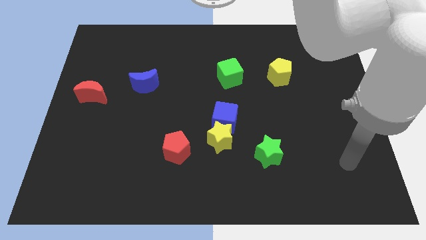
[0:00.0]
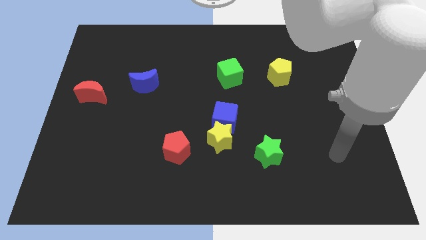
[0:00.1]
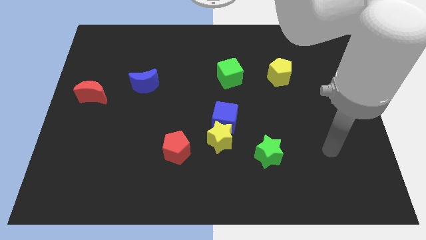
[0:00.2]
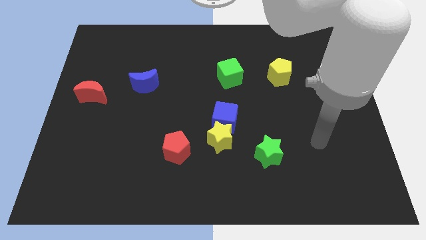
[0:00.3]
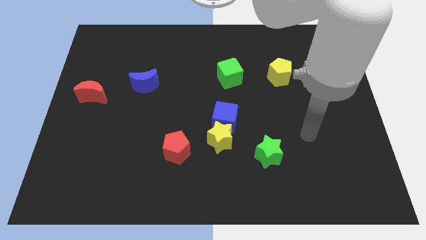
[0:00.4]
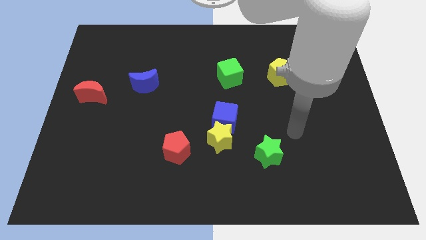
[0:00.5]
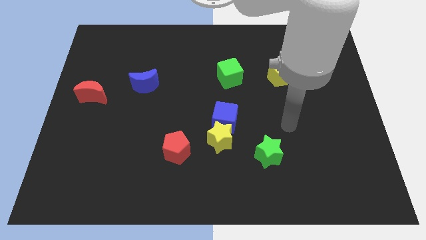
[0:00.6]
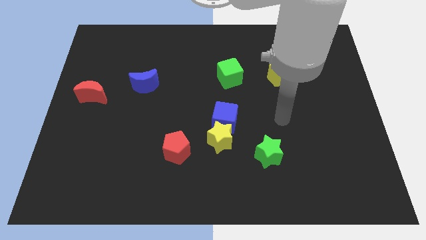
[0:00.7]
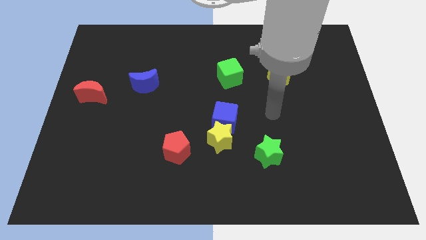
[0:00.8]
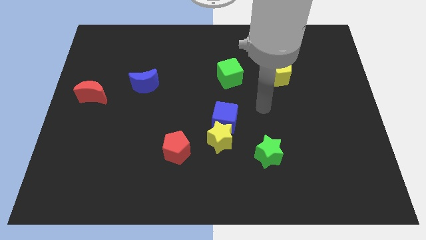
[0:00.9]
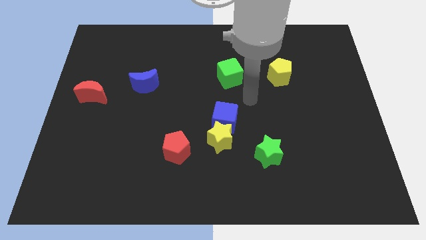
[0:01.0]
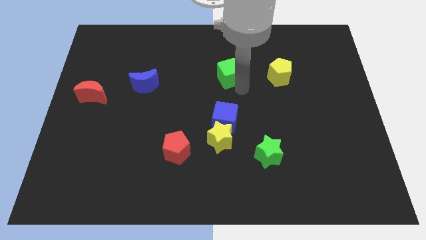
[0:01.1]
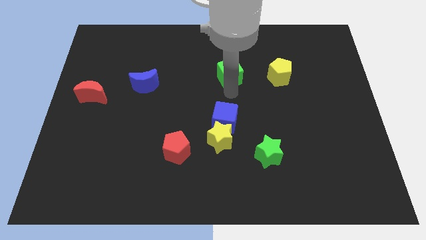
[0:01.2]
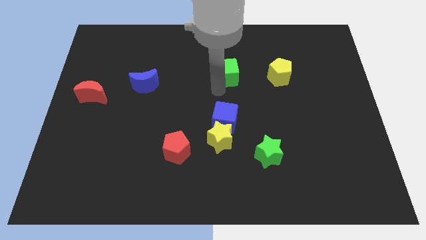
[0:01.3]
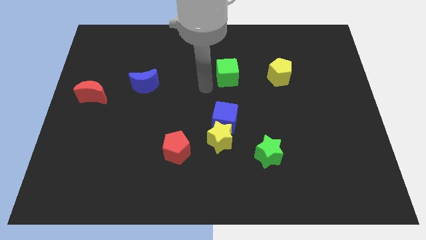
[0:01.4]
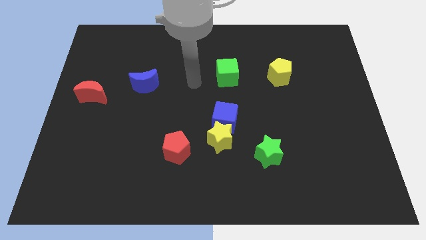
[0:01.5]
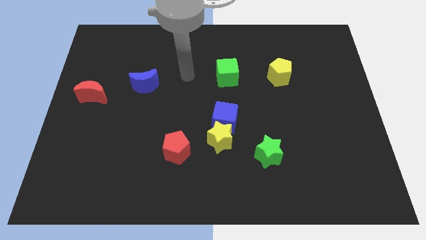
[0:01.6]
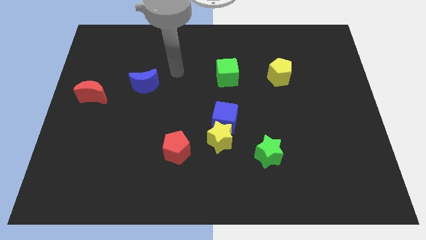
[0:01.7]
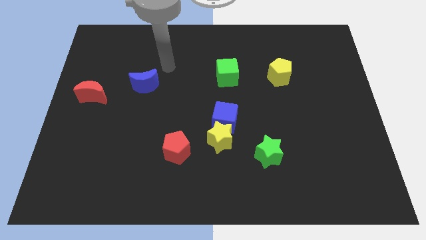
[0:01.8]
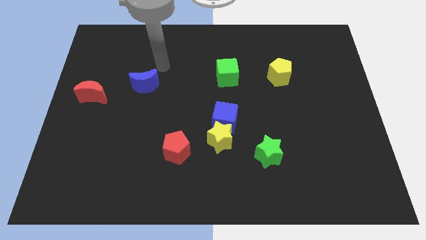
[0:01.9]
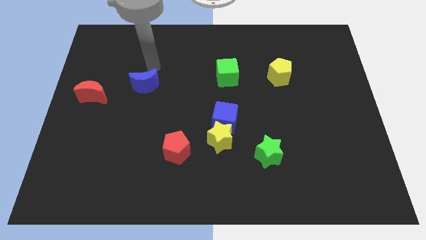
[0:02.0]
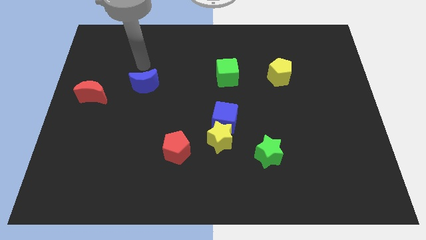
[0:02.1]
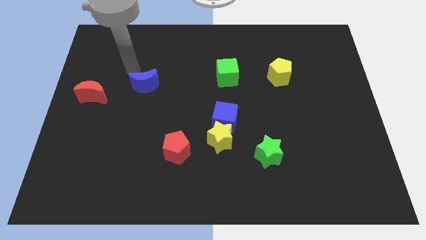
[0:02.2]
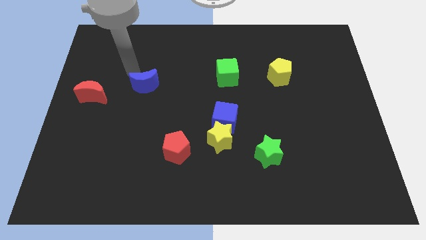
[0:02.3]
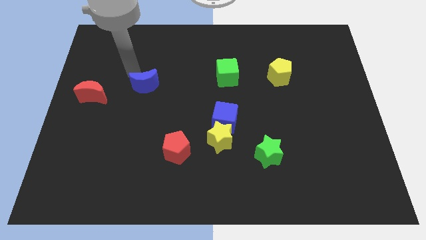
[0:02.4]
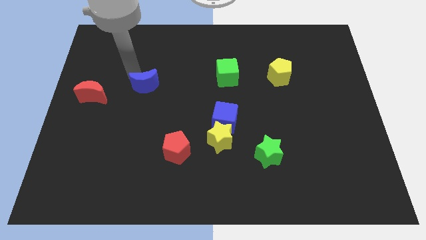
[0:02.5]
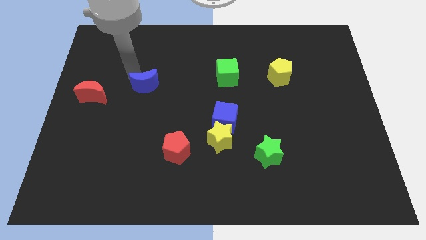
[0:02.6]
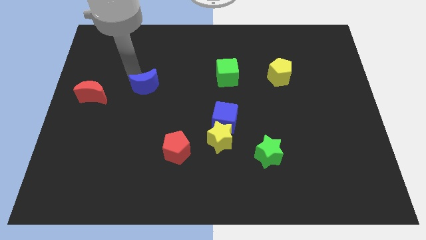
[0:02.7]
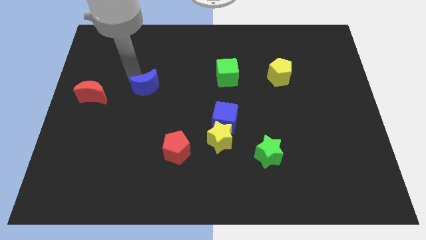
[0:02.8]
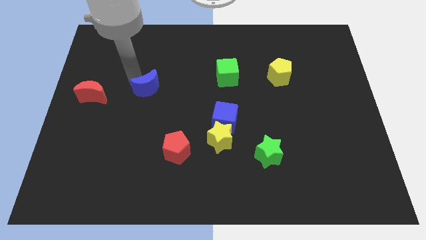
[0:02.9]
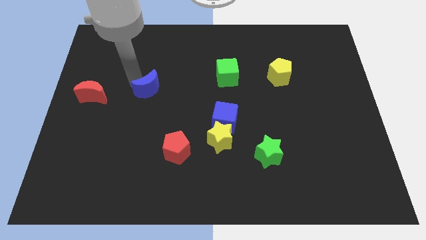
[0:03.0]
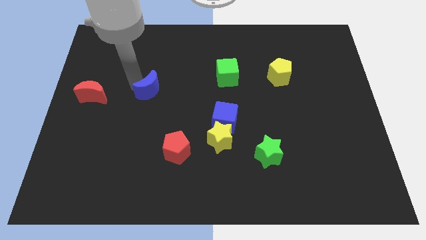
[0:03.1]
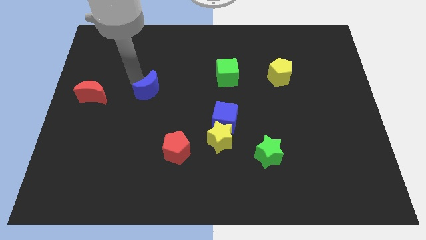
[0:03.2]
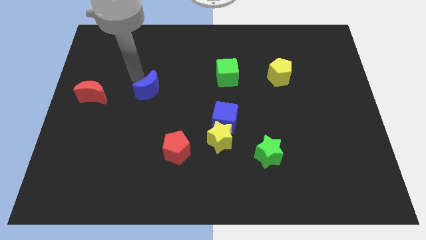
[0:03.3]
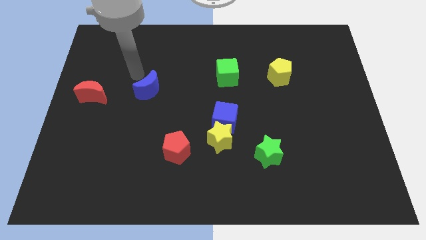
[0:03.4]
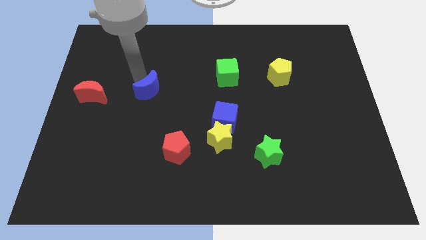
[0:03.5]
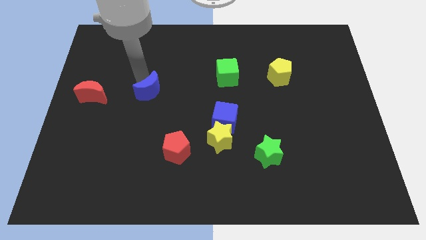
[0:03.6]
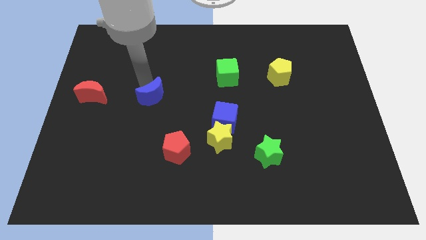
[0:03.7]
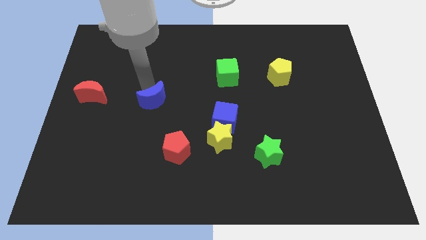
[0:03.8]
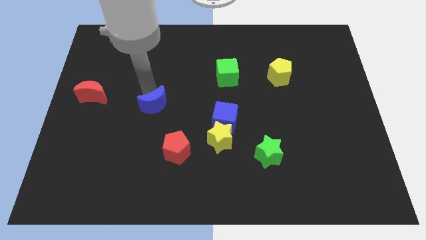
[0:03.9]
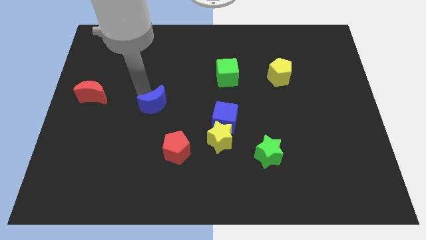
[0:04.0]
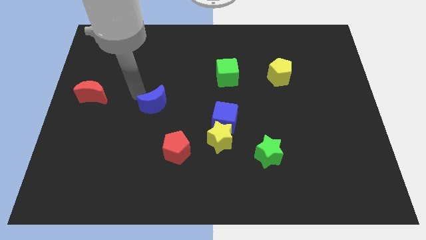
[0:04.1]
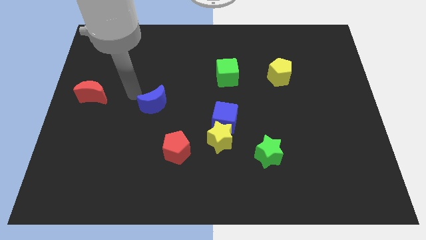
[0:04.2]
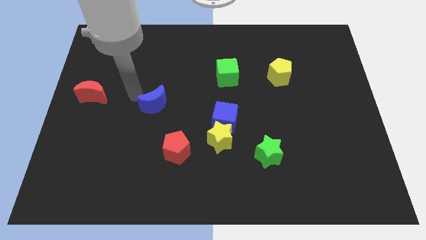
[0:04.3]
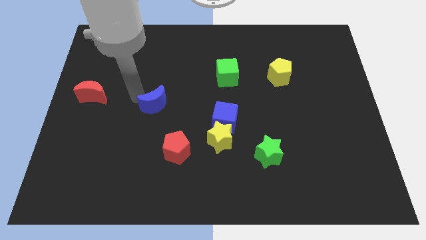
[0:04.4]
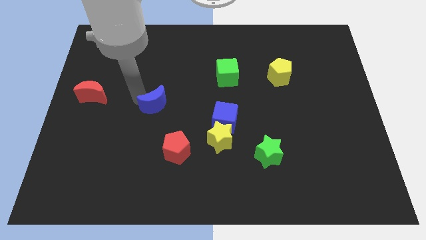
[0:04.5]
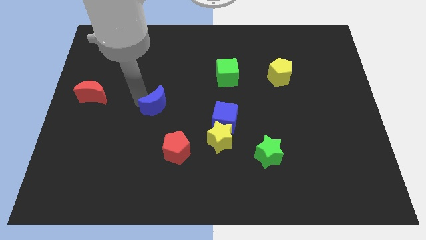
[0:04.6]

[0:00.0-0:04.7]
slide the blue moon somewhat diagonally downwards and right

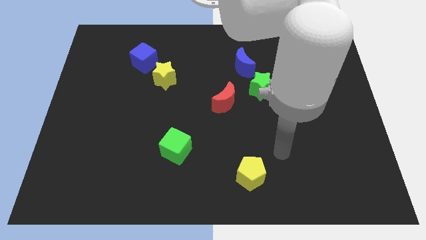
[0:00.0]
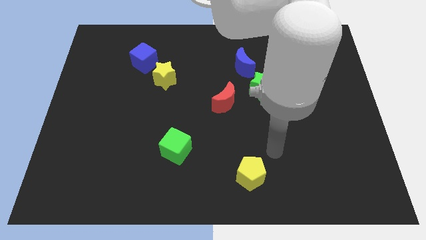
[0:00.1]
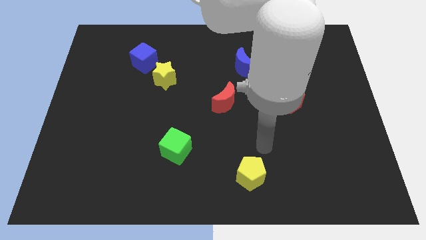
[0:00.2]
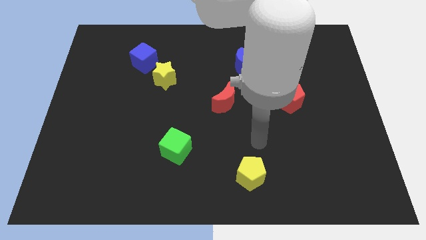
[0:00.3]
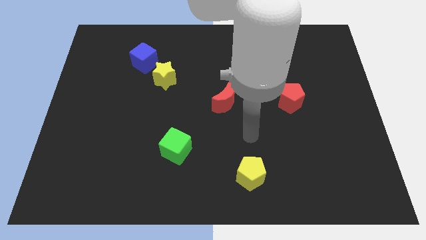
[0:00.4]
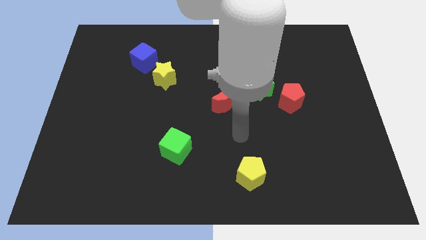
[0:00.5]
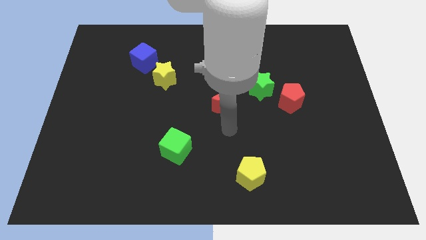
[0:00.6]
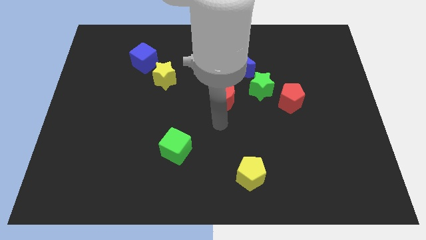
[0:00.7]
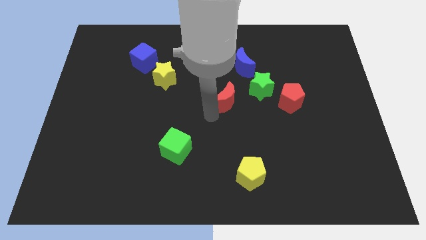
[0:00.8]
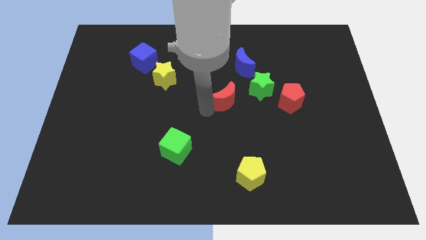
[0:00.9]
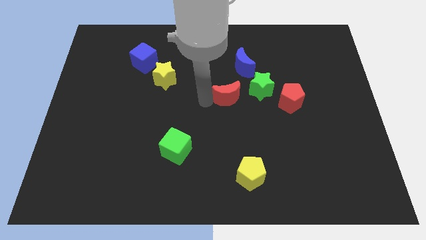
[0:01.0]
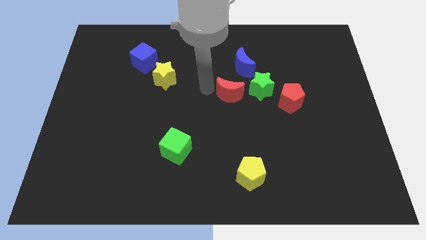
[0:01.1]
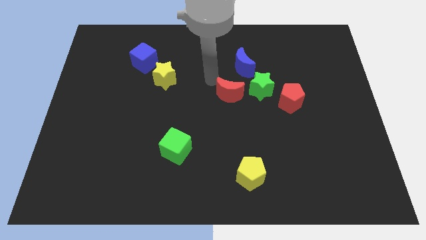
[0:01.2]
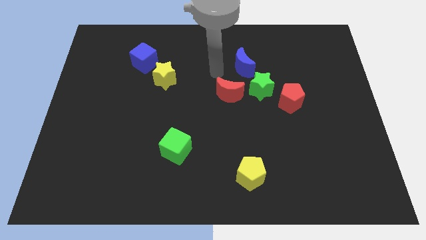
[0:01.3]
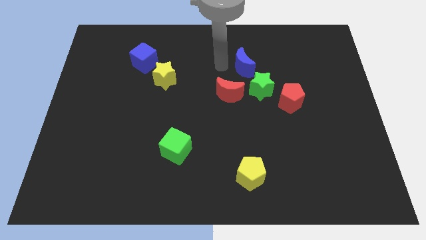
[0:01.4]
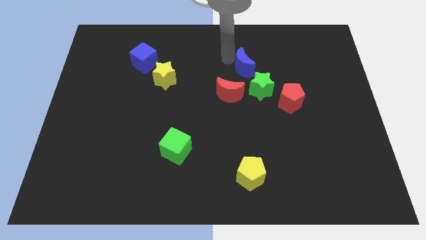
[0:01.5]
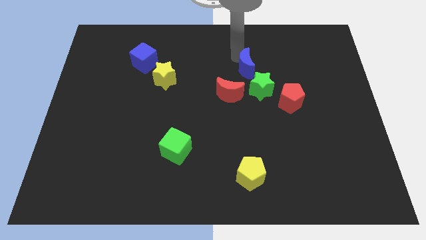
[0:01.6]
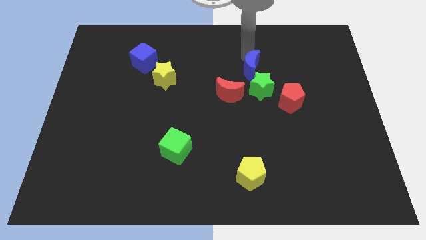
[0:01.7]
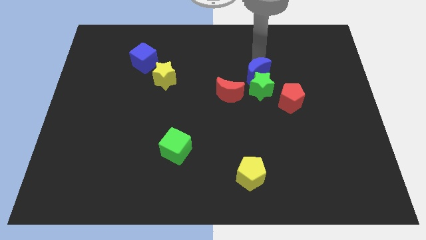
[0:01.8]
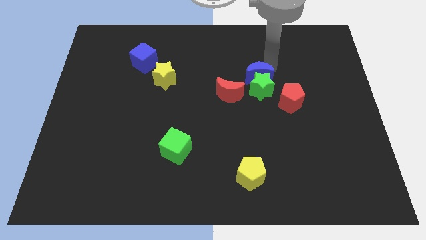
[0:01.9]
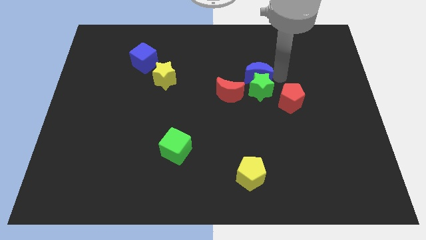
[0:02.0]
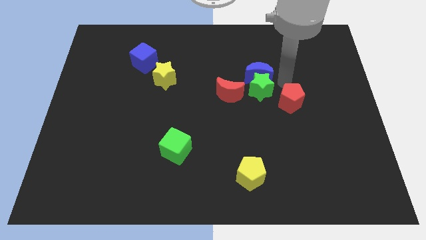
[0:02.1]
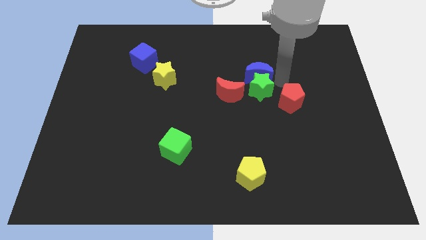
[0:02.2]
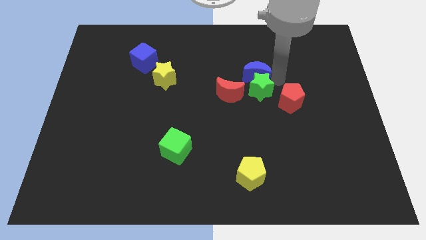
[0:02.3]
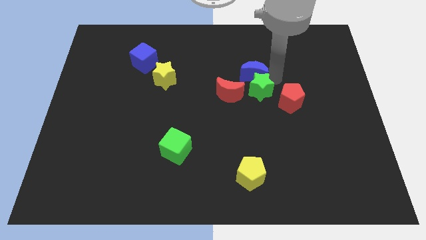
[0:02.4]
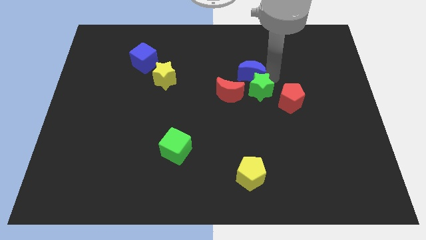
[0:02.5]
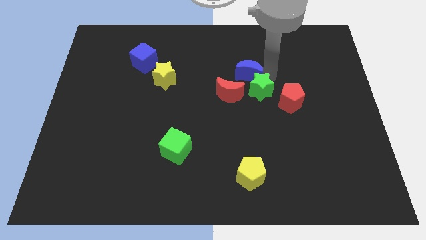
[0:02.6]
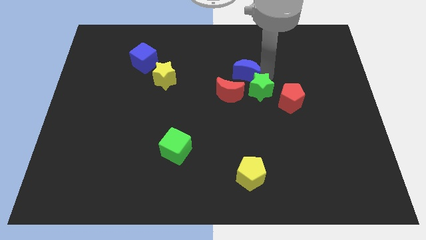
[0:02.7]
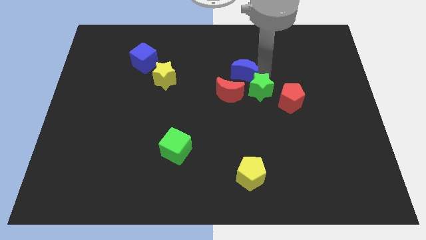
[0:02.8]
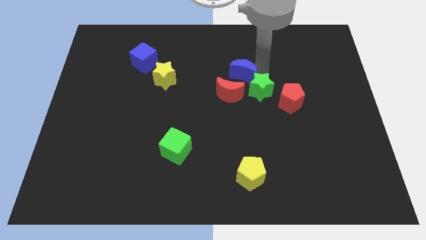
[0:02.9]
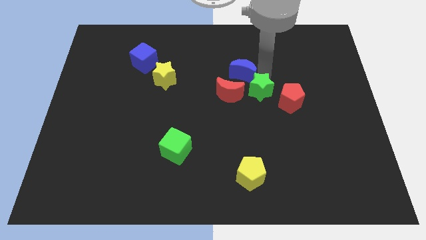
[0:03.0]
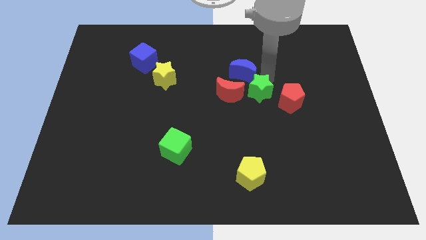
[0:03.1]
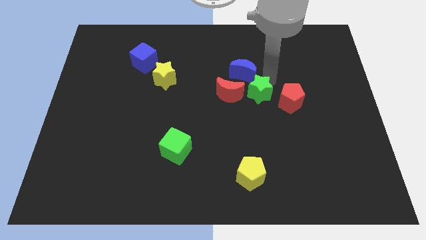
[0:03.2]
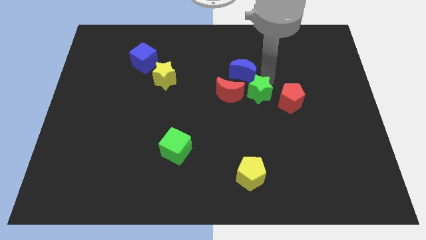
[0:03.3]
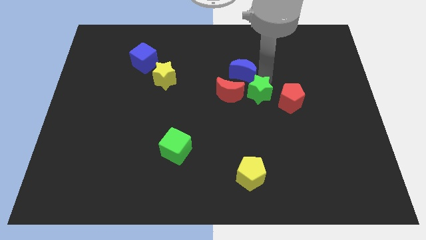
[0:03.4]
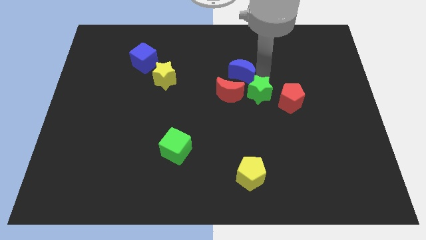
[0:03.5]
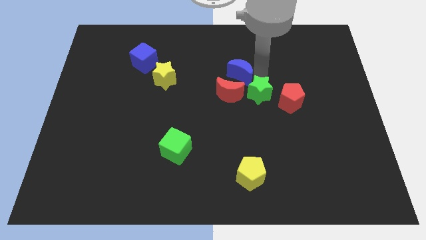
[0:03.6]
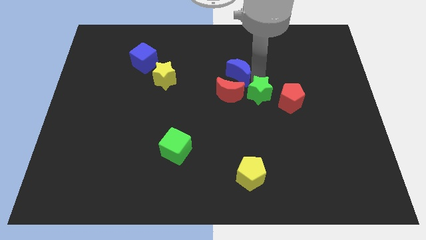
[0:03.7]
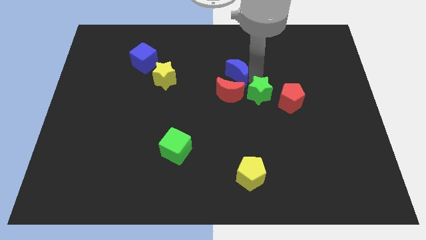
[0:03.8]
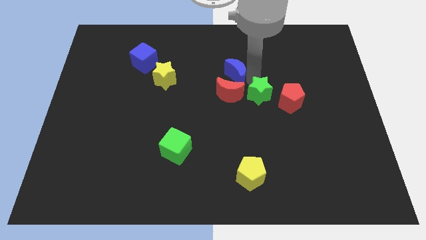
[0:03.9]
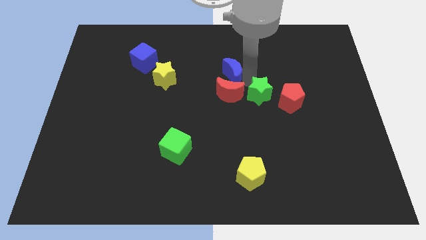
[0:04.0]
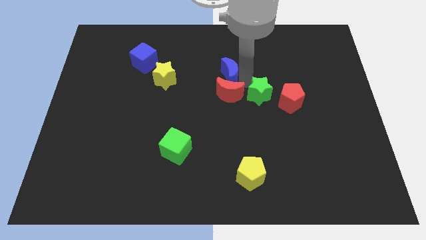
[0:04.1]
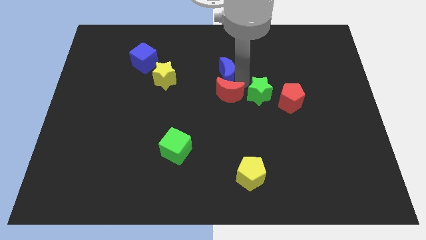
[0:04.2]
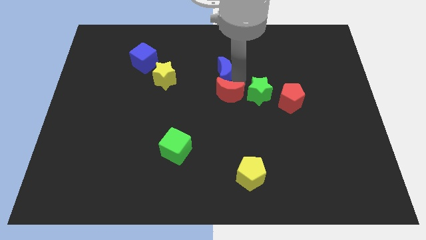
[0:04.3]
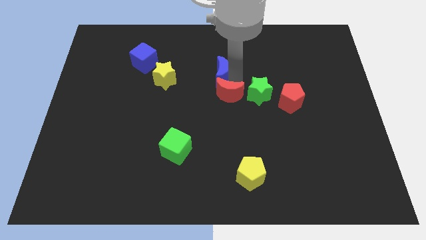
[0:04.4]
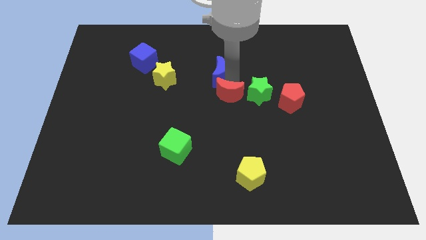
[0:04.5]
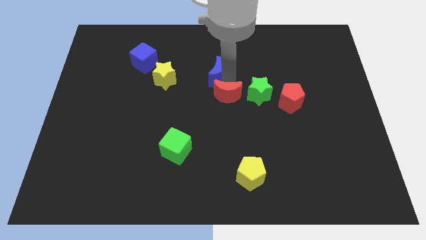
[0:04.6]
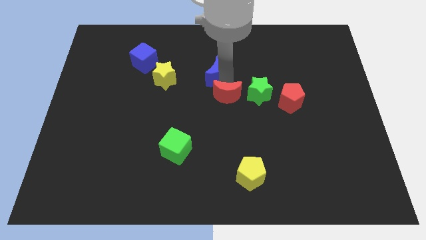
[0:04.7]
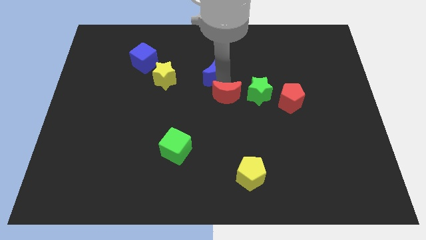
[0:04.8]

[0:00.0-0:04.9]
slide the blue moon slightly to the left
